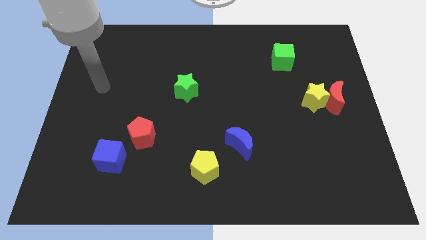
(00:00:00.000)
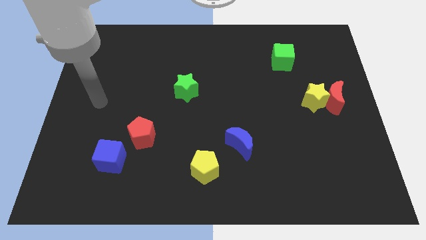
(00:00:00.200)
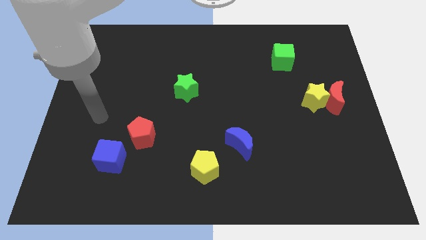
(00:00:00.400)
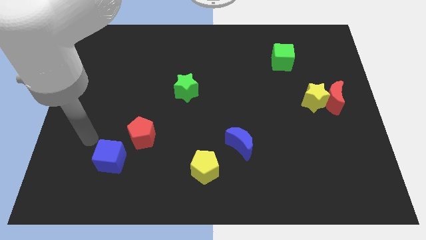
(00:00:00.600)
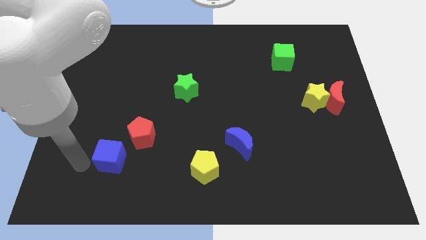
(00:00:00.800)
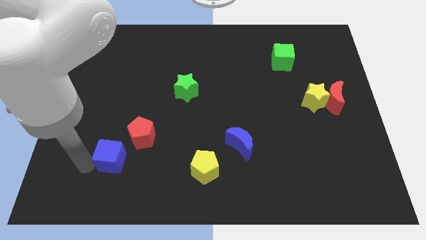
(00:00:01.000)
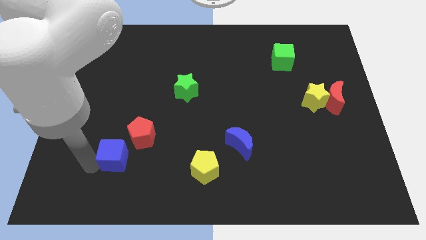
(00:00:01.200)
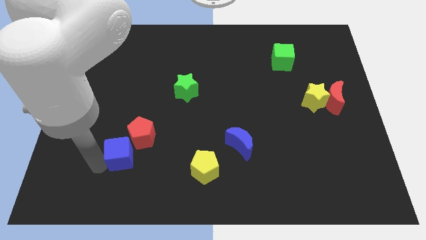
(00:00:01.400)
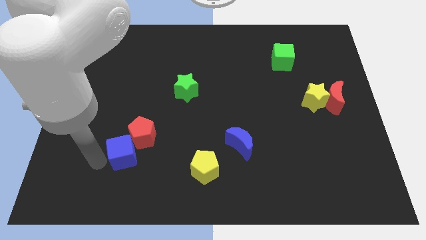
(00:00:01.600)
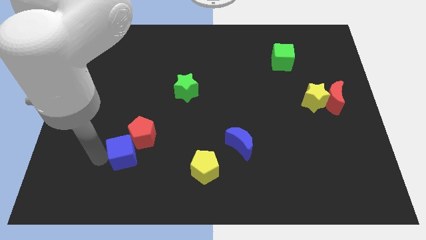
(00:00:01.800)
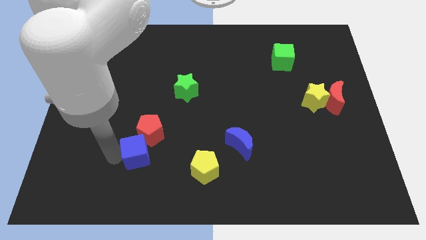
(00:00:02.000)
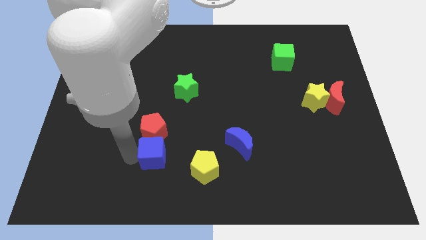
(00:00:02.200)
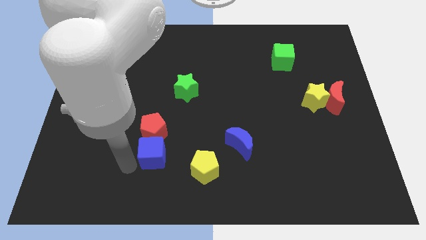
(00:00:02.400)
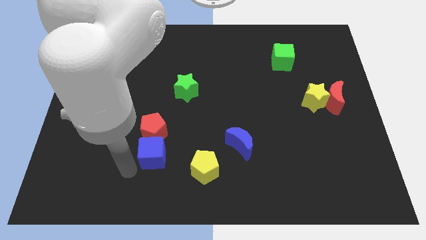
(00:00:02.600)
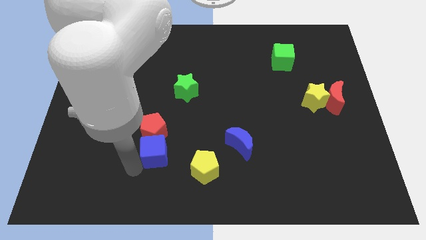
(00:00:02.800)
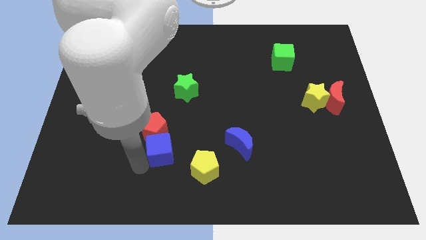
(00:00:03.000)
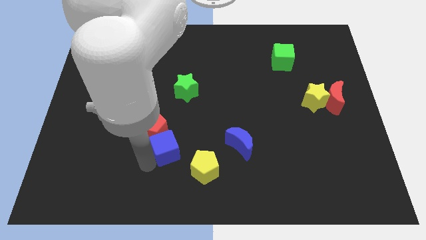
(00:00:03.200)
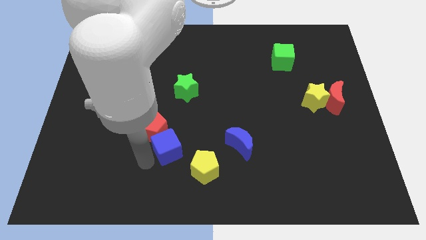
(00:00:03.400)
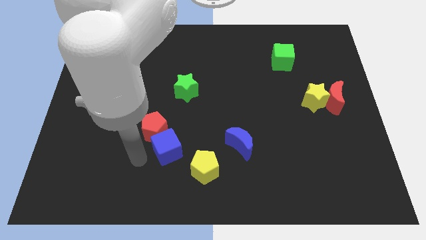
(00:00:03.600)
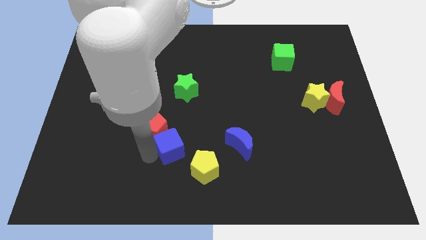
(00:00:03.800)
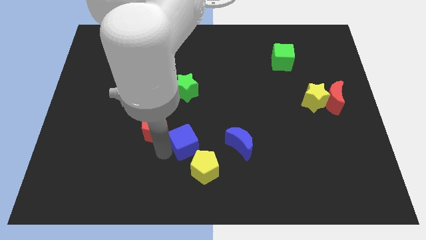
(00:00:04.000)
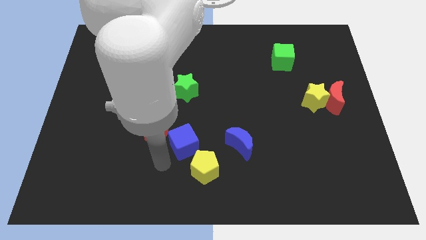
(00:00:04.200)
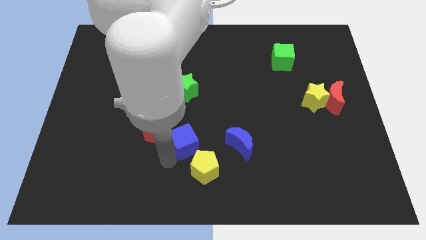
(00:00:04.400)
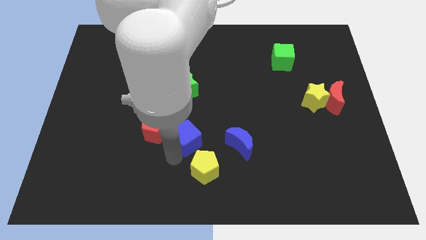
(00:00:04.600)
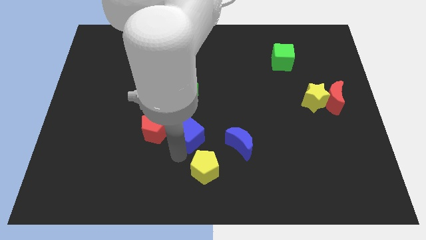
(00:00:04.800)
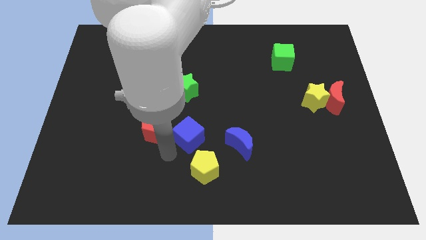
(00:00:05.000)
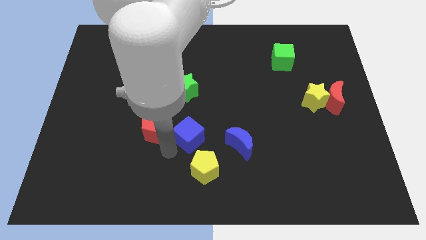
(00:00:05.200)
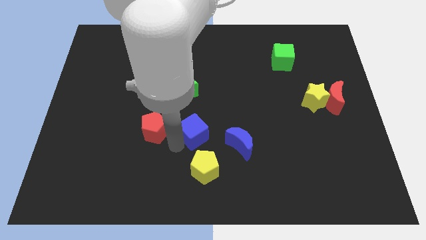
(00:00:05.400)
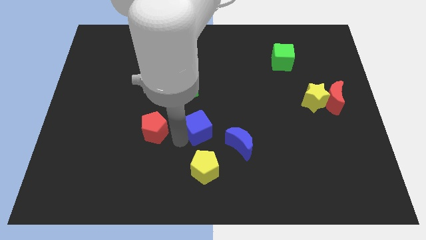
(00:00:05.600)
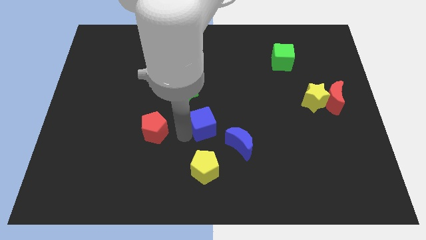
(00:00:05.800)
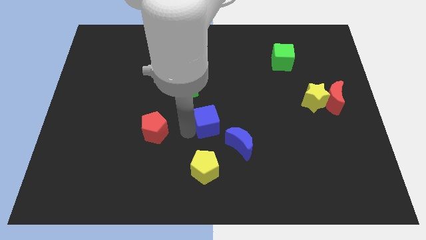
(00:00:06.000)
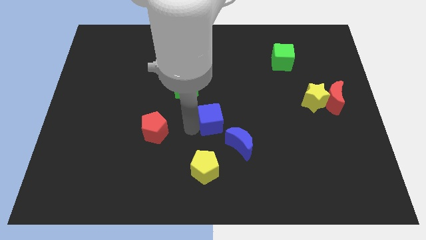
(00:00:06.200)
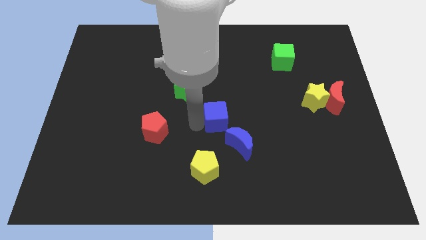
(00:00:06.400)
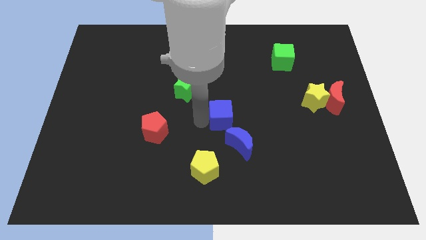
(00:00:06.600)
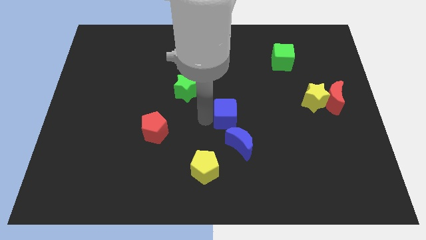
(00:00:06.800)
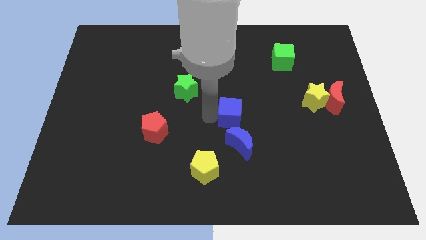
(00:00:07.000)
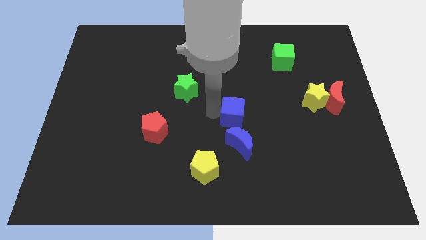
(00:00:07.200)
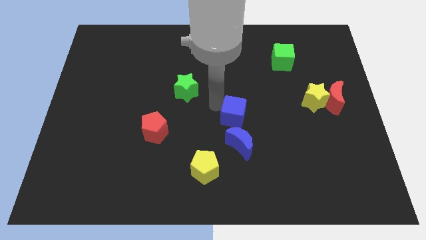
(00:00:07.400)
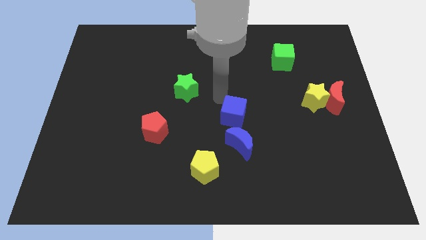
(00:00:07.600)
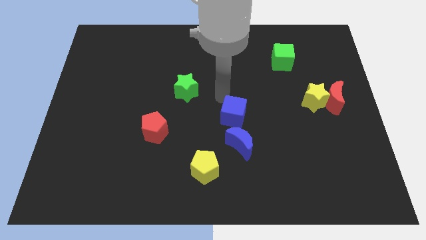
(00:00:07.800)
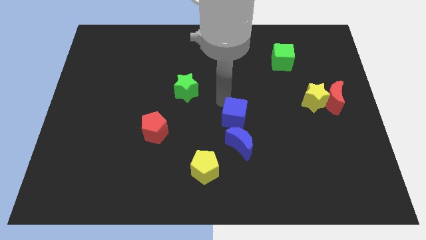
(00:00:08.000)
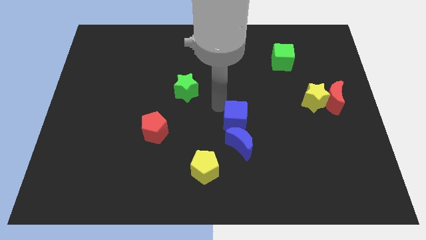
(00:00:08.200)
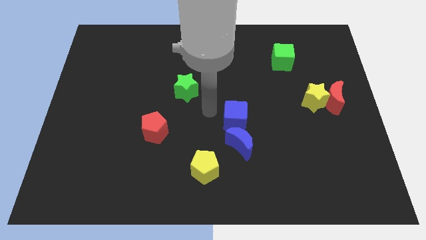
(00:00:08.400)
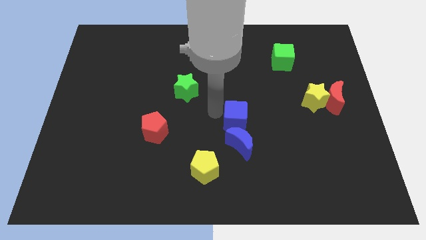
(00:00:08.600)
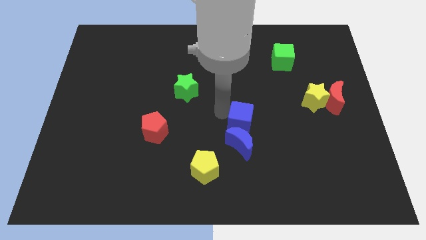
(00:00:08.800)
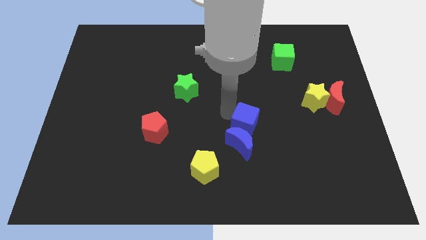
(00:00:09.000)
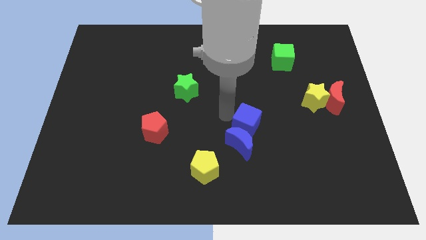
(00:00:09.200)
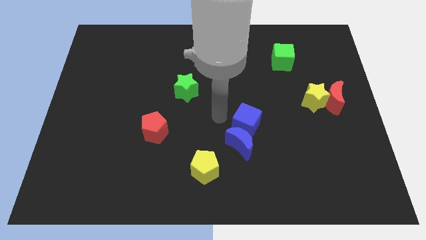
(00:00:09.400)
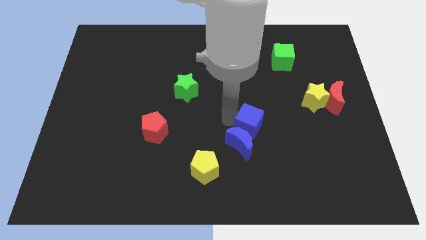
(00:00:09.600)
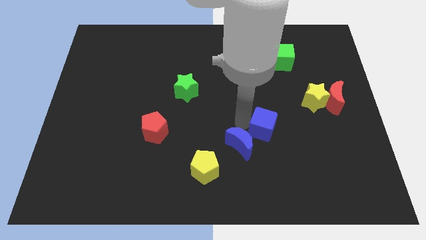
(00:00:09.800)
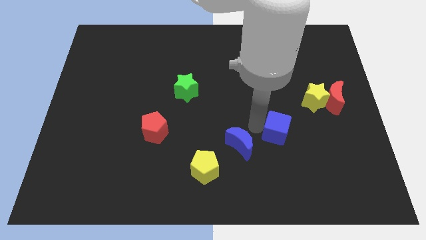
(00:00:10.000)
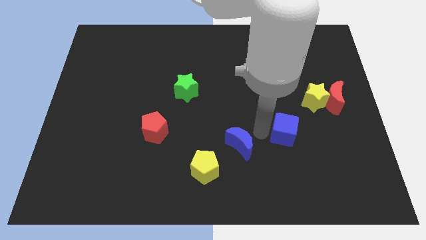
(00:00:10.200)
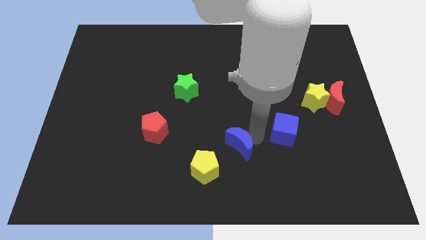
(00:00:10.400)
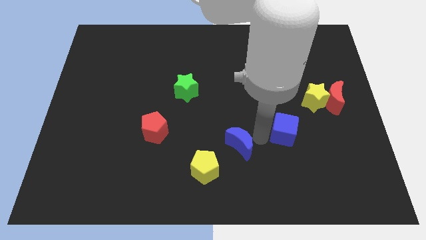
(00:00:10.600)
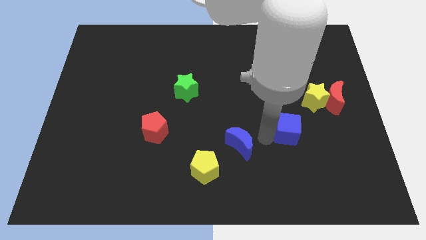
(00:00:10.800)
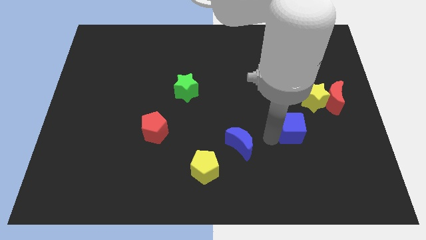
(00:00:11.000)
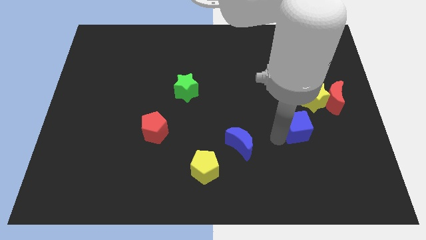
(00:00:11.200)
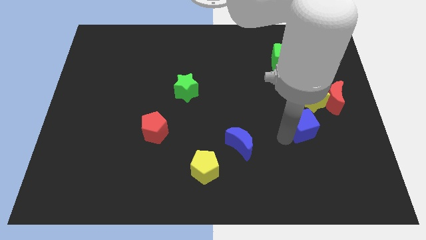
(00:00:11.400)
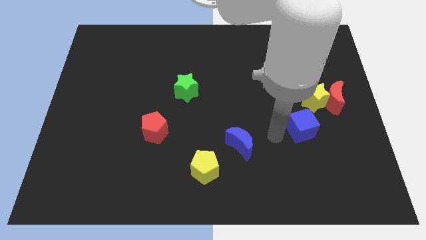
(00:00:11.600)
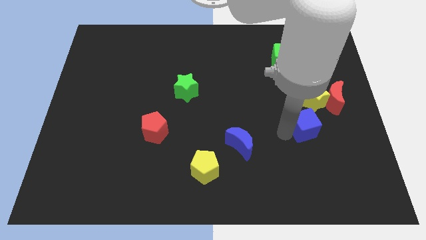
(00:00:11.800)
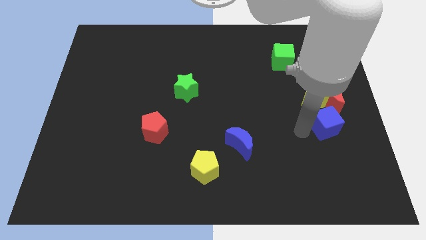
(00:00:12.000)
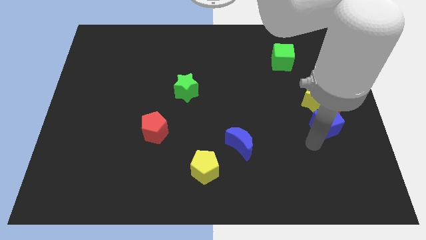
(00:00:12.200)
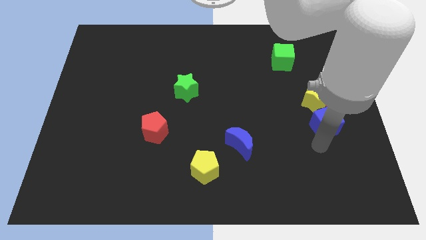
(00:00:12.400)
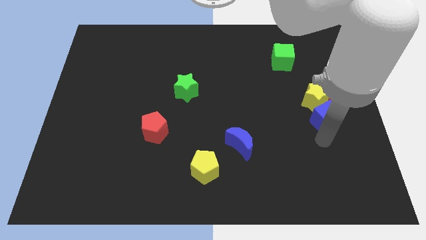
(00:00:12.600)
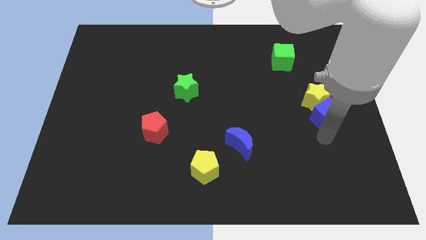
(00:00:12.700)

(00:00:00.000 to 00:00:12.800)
push the blue cube to the red moon
